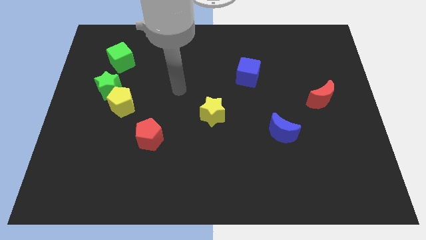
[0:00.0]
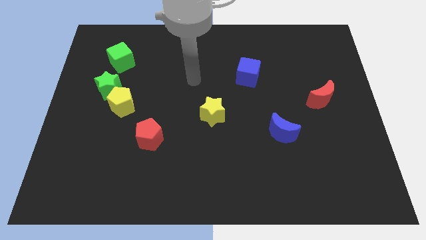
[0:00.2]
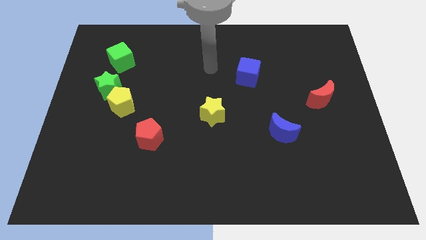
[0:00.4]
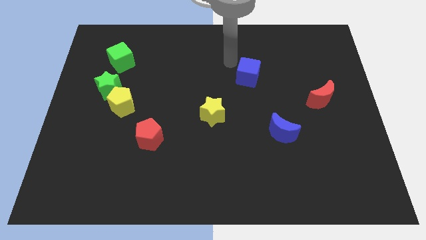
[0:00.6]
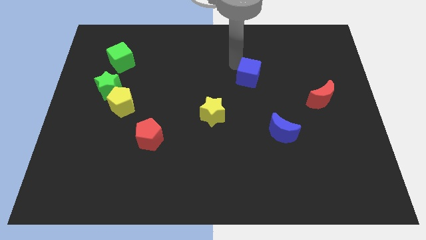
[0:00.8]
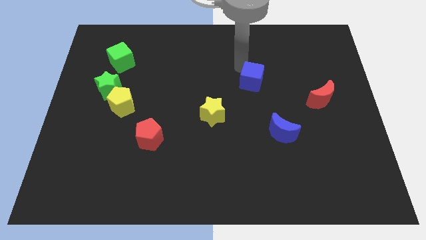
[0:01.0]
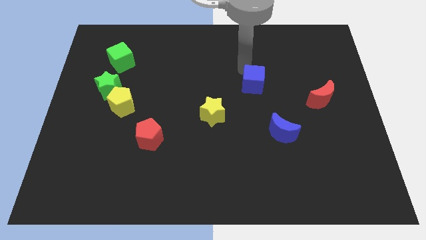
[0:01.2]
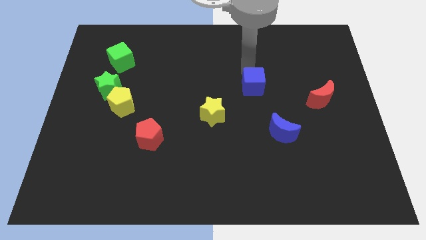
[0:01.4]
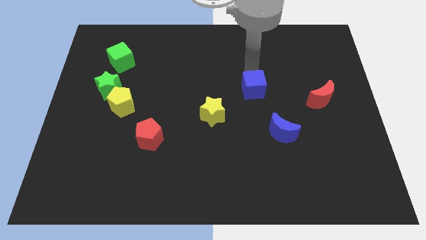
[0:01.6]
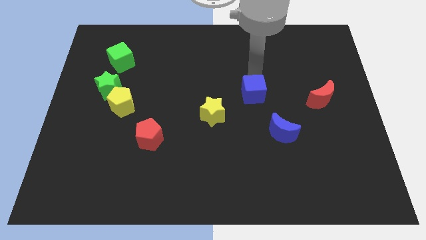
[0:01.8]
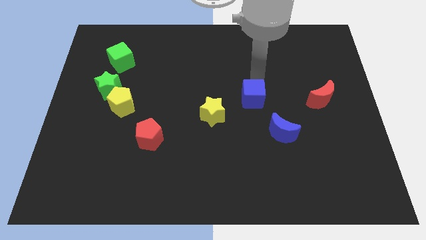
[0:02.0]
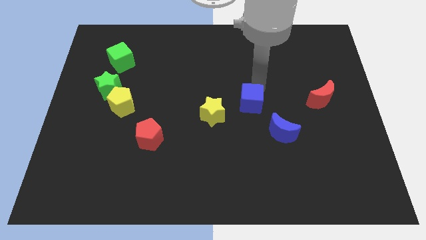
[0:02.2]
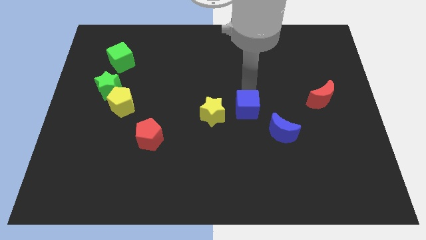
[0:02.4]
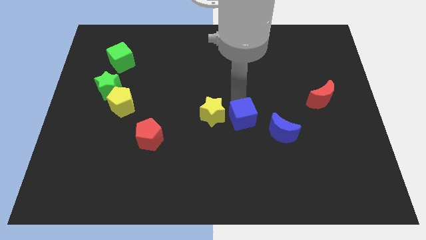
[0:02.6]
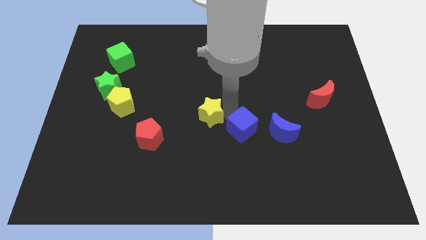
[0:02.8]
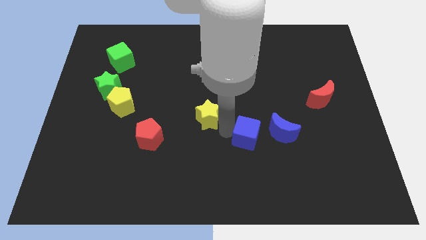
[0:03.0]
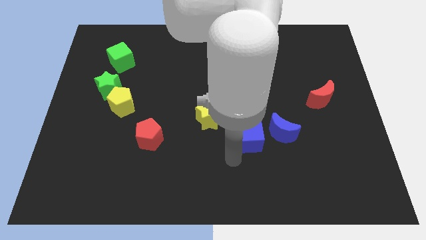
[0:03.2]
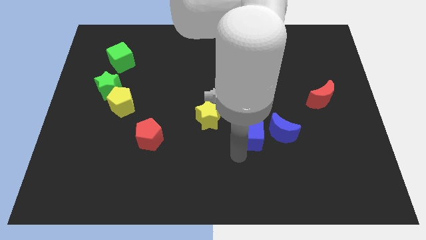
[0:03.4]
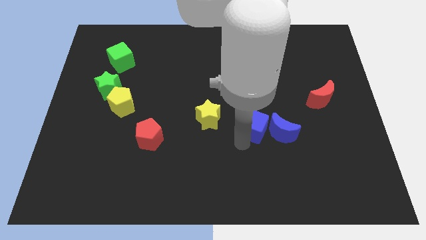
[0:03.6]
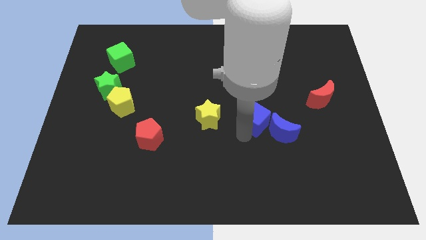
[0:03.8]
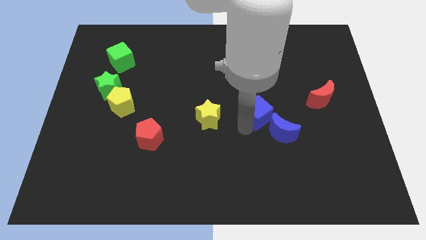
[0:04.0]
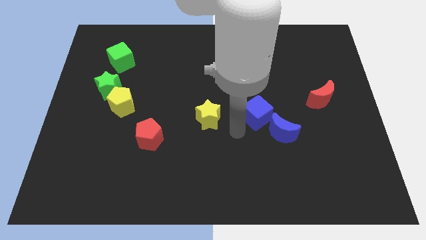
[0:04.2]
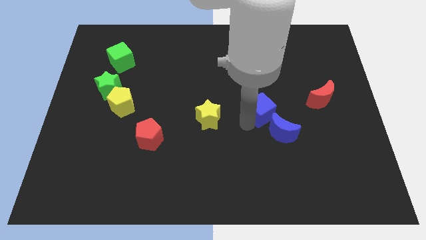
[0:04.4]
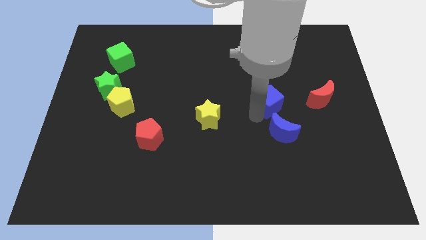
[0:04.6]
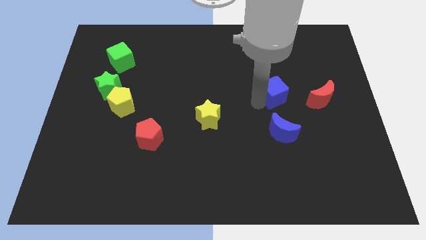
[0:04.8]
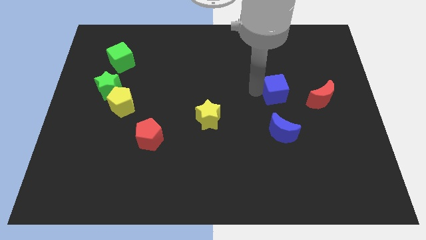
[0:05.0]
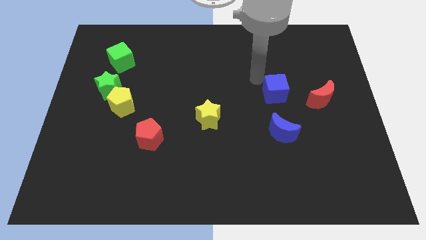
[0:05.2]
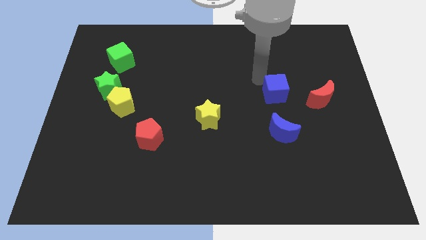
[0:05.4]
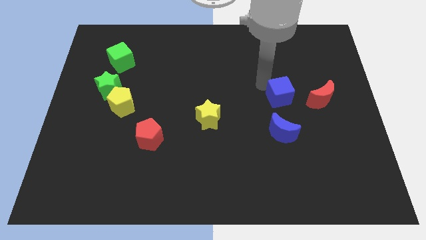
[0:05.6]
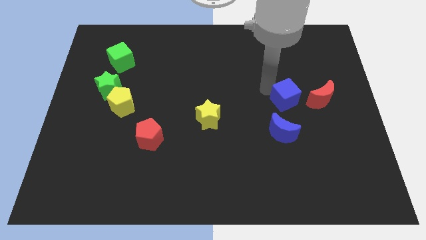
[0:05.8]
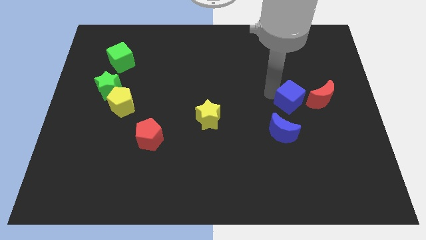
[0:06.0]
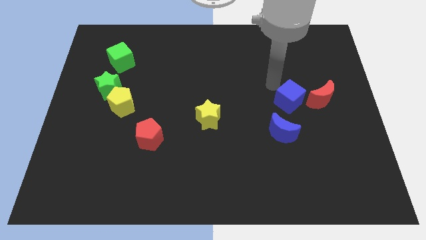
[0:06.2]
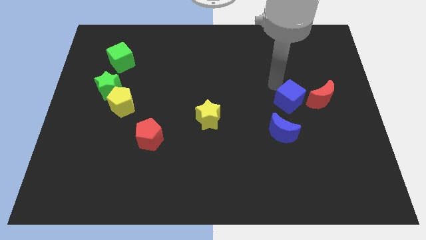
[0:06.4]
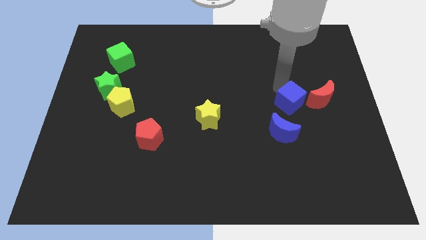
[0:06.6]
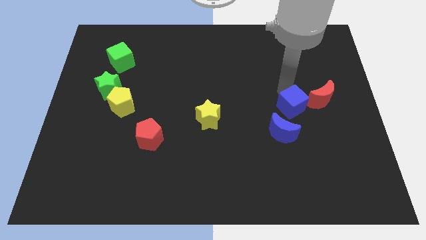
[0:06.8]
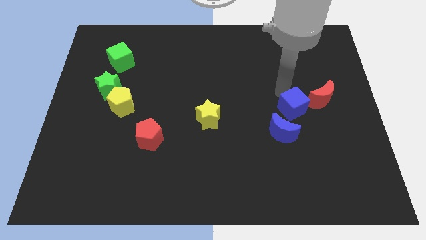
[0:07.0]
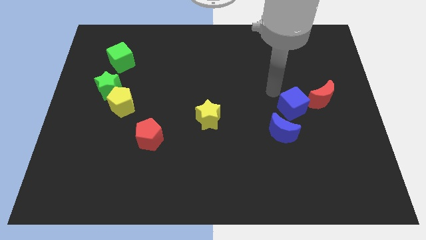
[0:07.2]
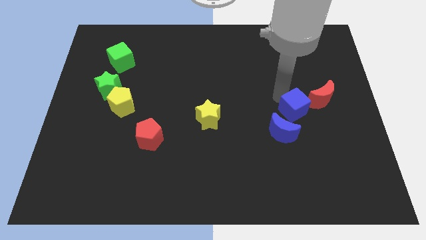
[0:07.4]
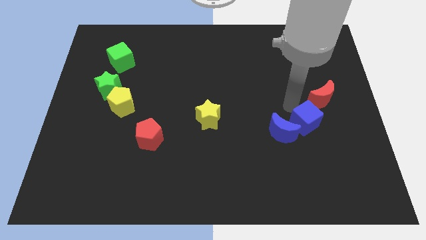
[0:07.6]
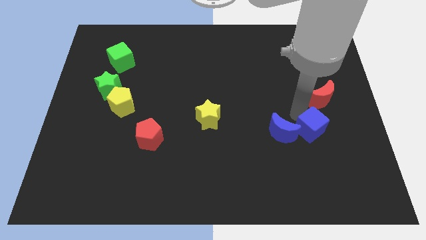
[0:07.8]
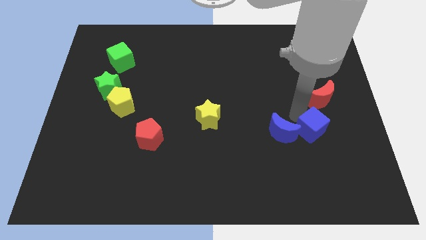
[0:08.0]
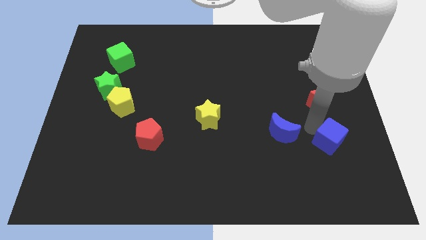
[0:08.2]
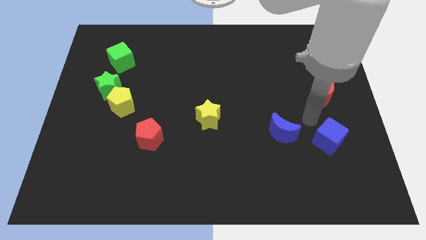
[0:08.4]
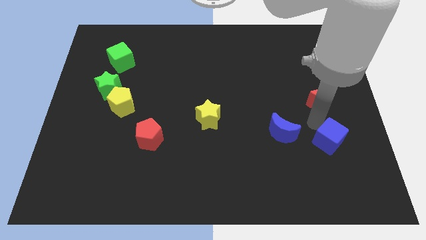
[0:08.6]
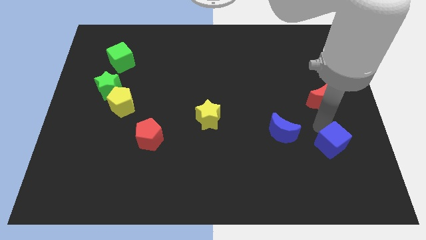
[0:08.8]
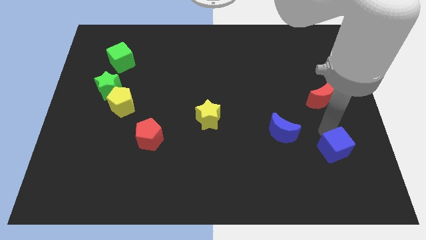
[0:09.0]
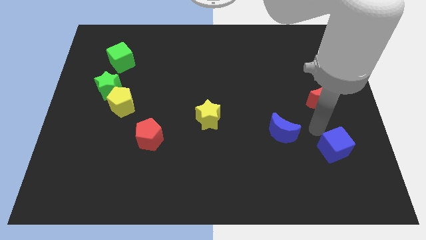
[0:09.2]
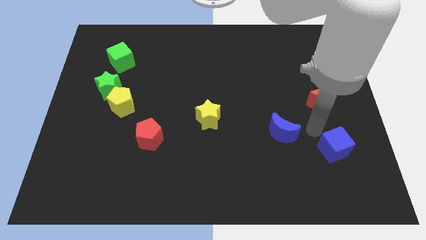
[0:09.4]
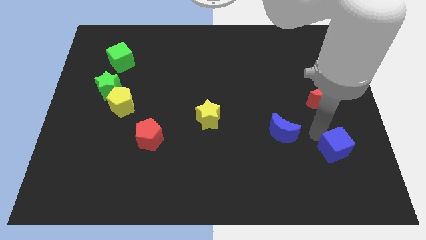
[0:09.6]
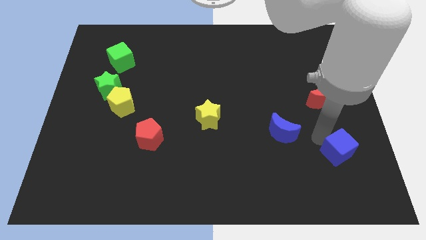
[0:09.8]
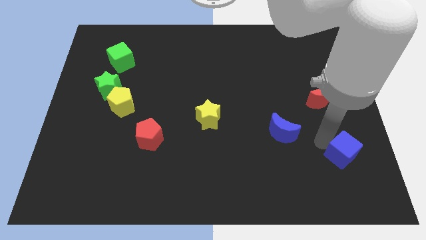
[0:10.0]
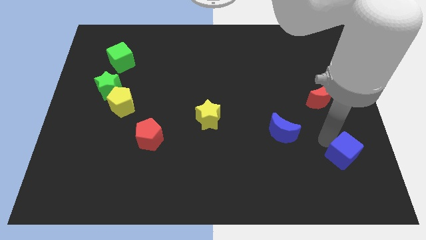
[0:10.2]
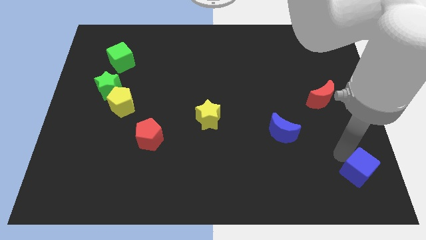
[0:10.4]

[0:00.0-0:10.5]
push the blue cube to the bottom right

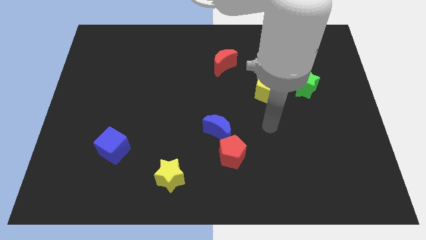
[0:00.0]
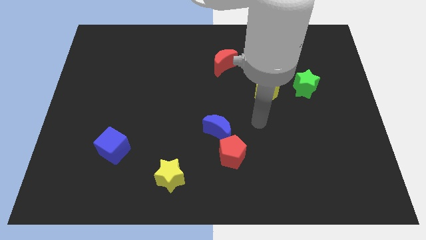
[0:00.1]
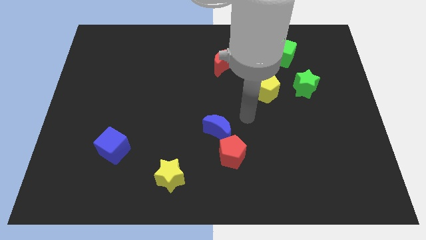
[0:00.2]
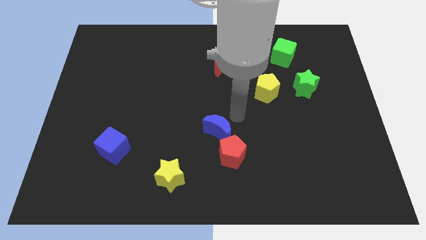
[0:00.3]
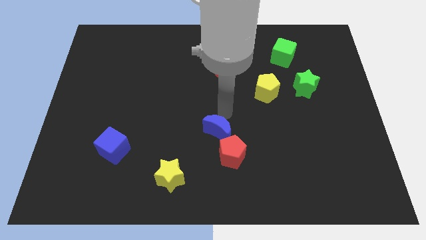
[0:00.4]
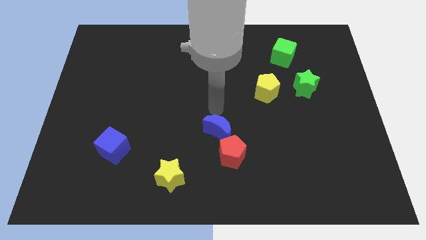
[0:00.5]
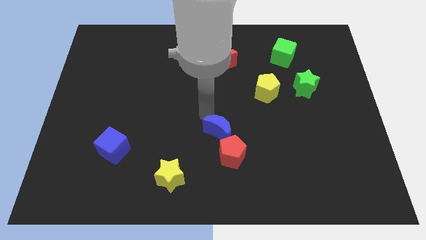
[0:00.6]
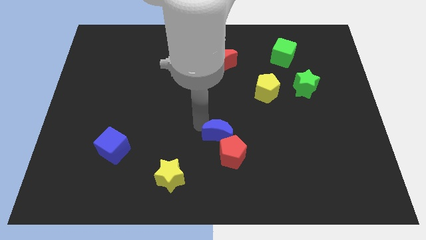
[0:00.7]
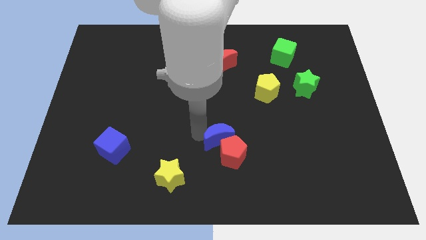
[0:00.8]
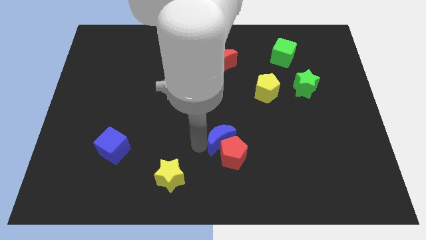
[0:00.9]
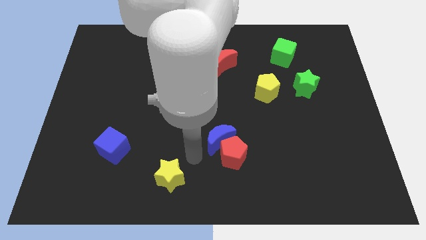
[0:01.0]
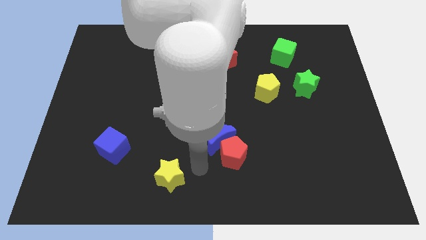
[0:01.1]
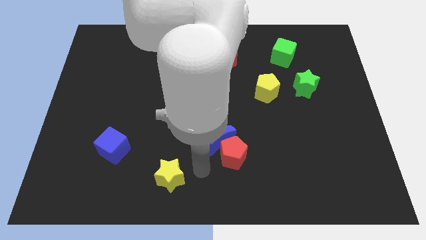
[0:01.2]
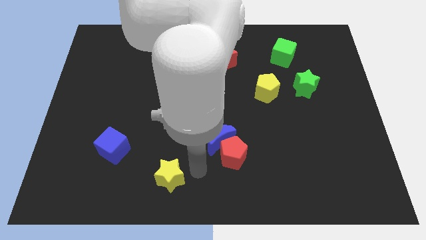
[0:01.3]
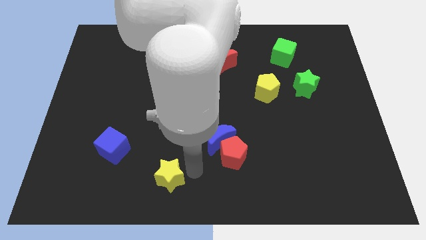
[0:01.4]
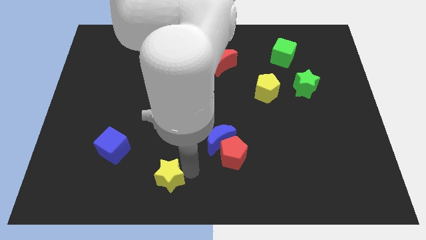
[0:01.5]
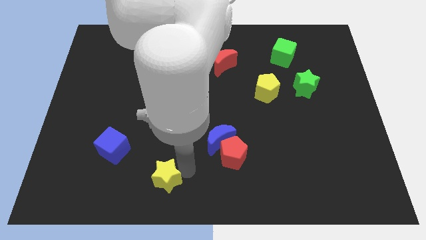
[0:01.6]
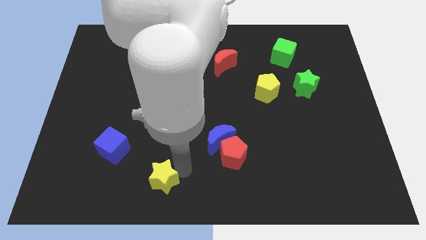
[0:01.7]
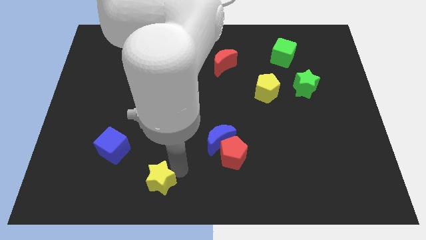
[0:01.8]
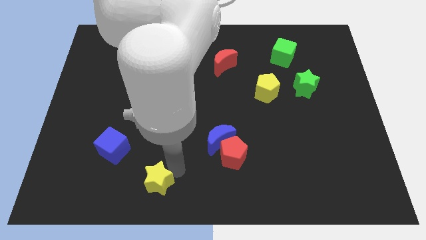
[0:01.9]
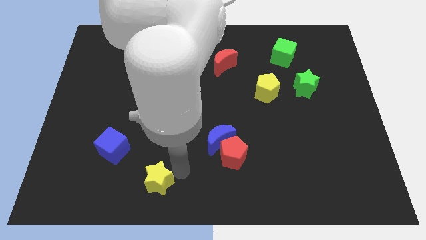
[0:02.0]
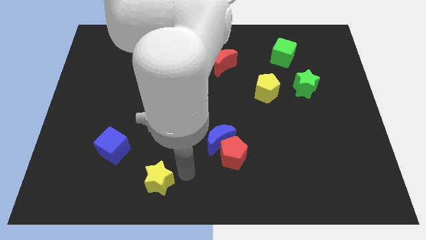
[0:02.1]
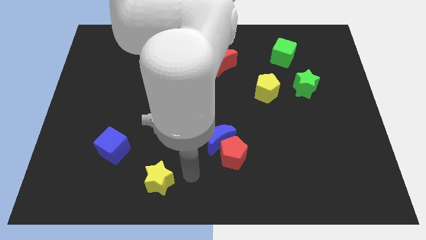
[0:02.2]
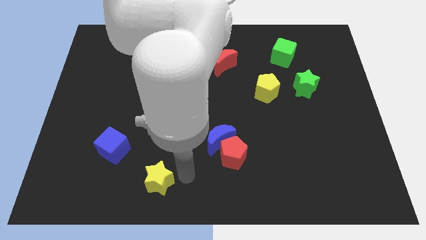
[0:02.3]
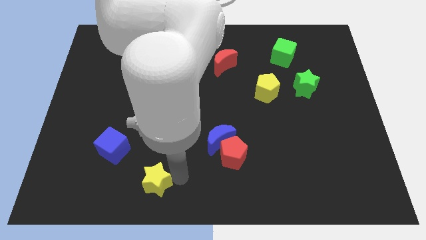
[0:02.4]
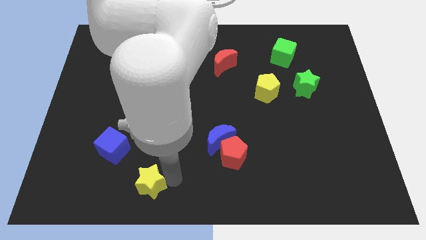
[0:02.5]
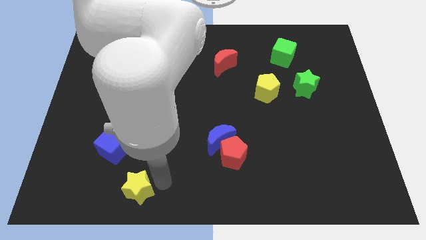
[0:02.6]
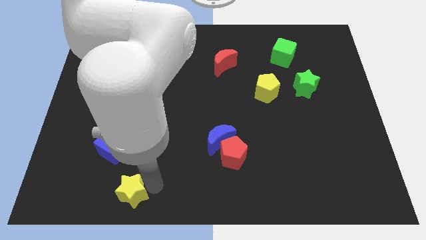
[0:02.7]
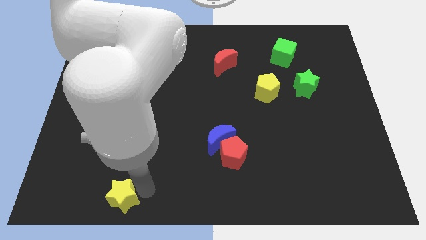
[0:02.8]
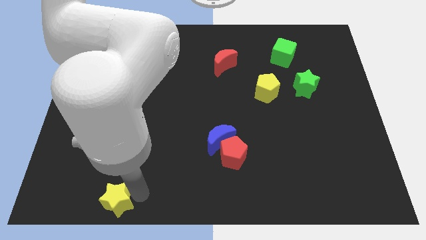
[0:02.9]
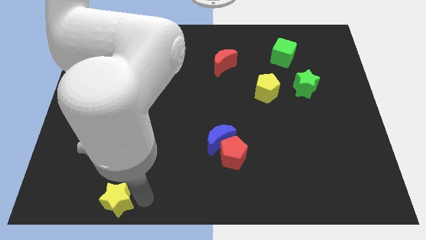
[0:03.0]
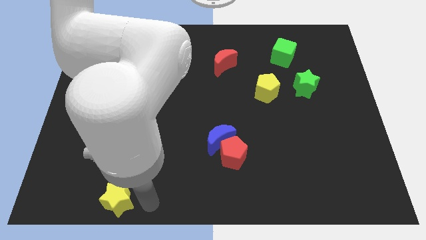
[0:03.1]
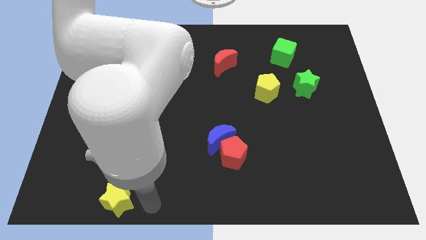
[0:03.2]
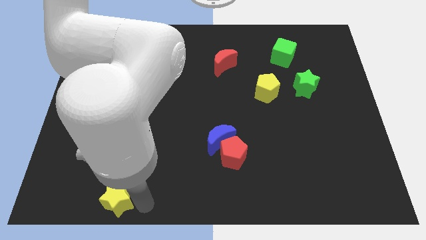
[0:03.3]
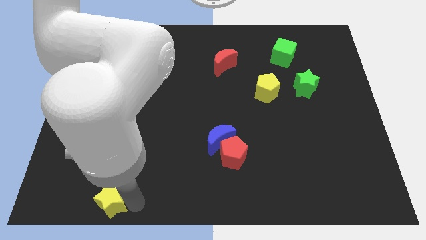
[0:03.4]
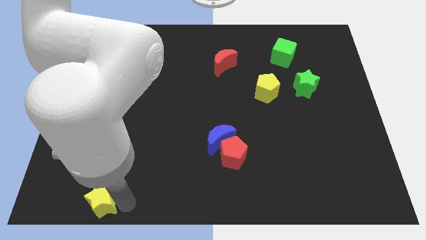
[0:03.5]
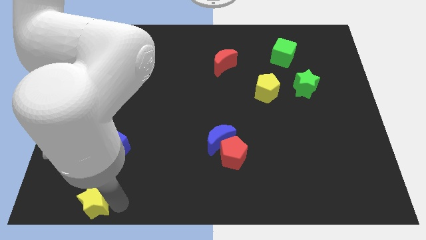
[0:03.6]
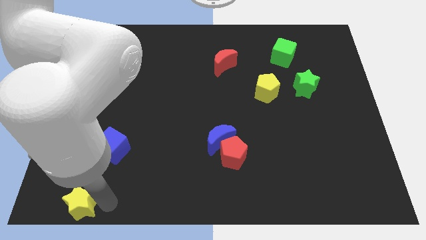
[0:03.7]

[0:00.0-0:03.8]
move the yellow star to the lower left corner
